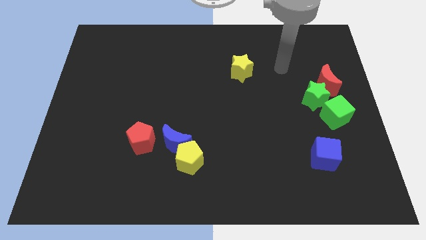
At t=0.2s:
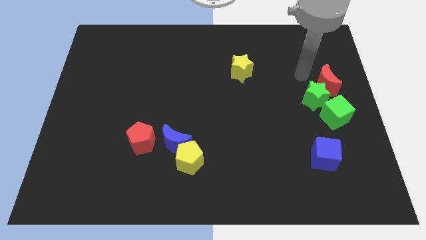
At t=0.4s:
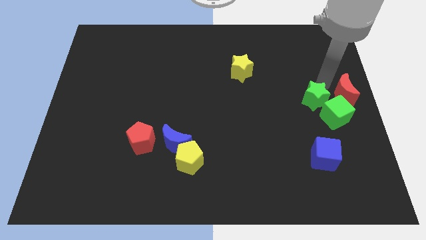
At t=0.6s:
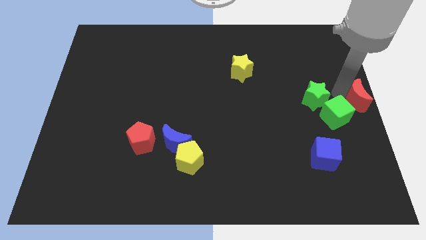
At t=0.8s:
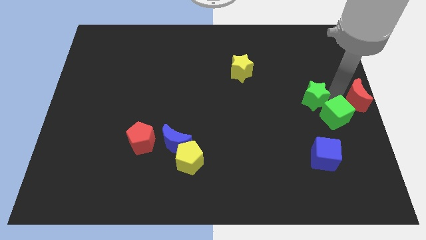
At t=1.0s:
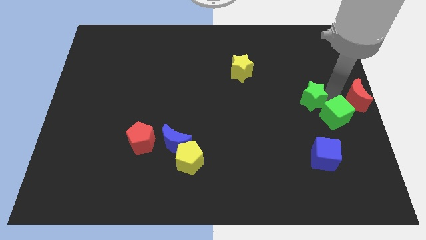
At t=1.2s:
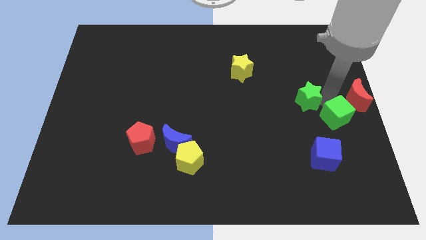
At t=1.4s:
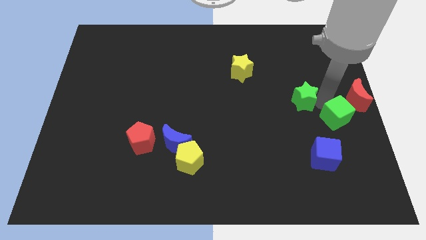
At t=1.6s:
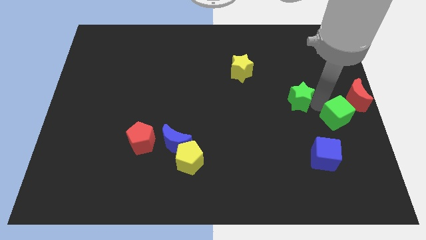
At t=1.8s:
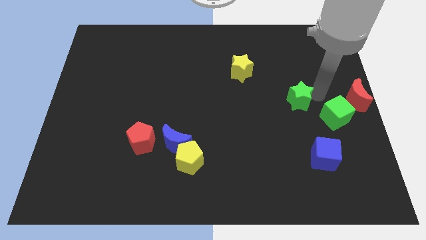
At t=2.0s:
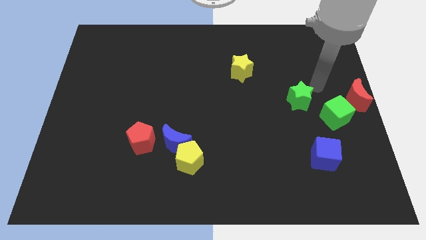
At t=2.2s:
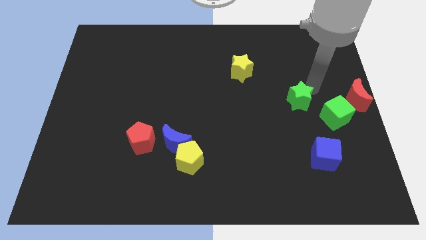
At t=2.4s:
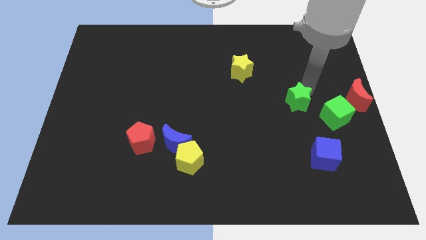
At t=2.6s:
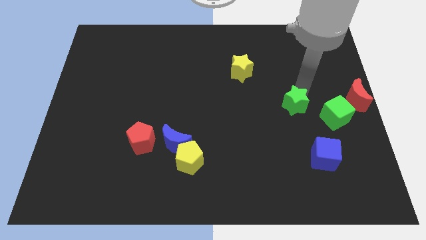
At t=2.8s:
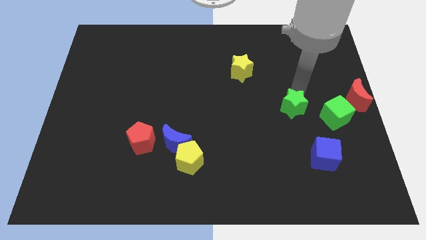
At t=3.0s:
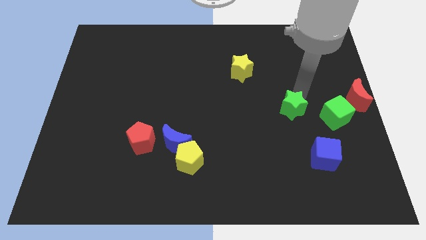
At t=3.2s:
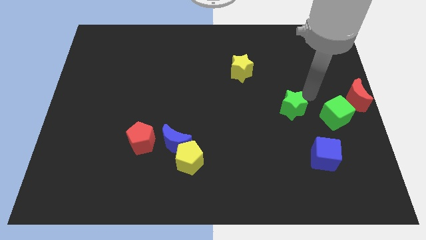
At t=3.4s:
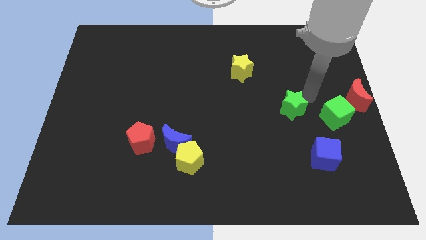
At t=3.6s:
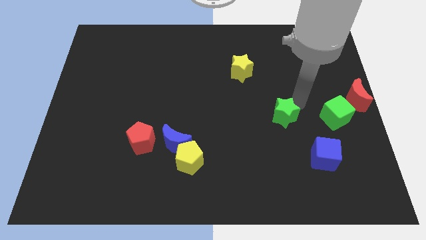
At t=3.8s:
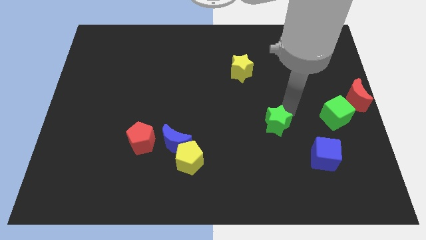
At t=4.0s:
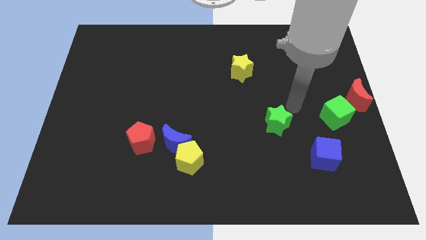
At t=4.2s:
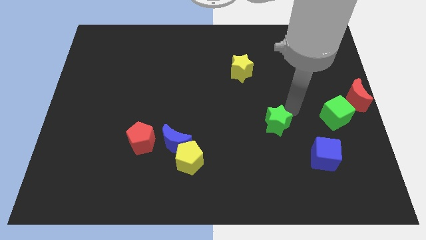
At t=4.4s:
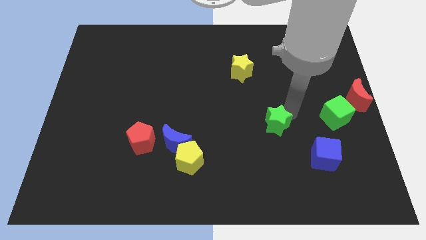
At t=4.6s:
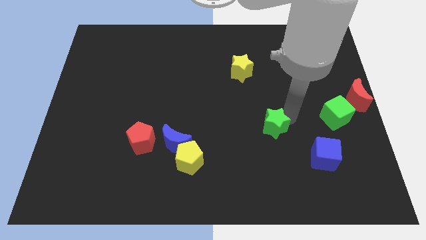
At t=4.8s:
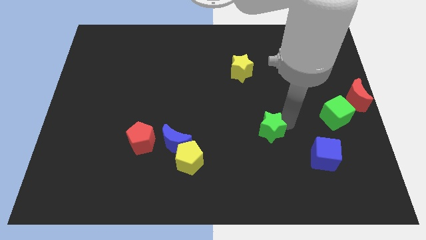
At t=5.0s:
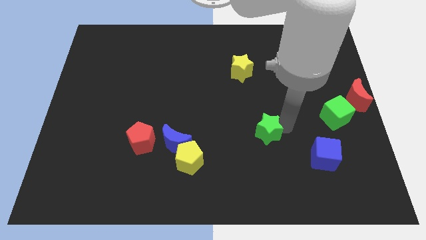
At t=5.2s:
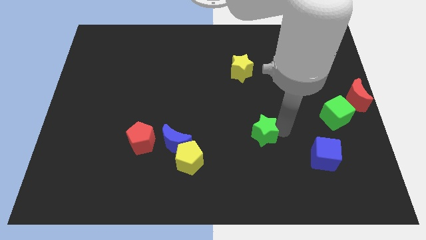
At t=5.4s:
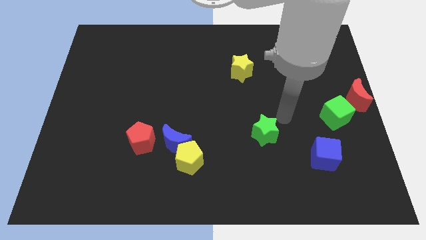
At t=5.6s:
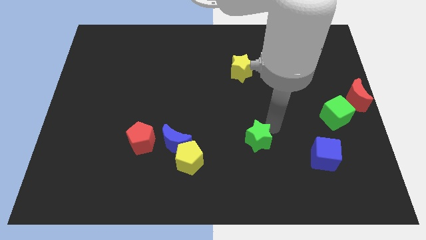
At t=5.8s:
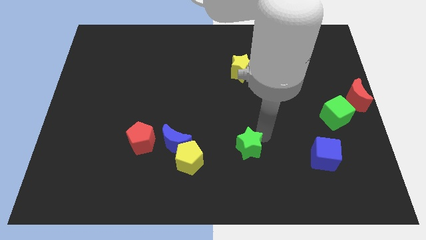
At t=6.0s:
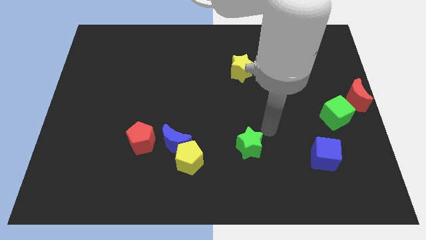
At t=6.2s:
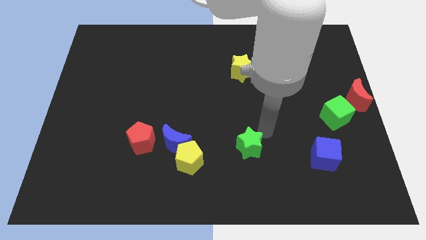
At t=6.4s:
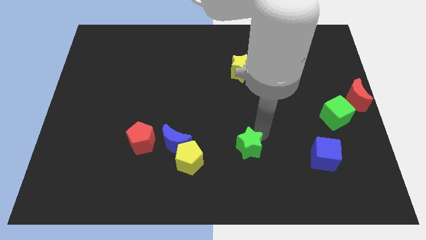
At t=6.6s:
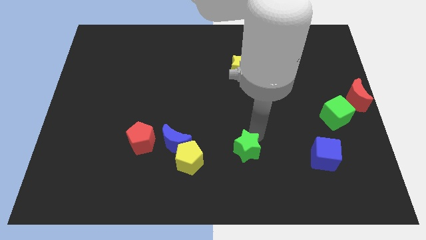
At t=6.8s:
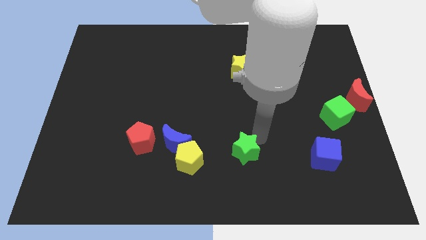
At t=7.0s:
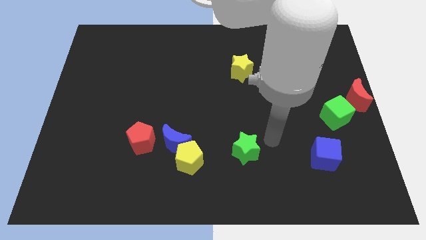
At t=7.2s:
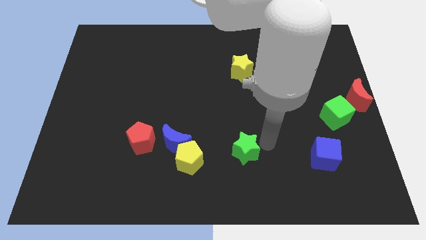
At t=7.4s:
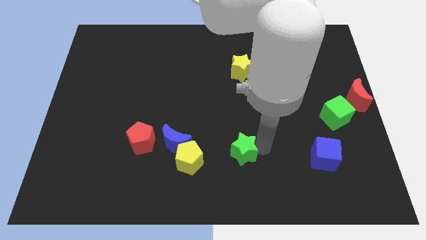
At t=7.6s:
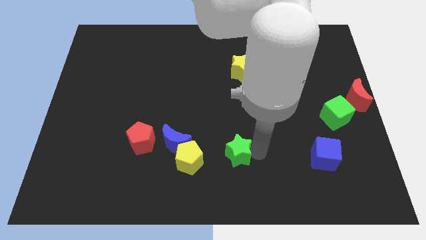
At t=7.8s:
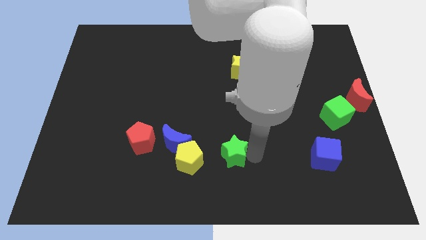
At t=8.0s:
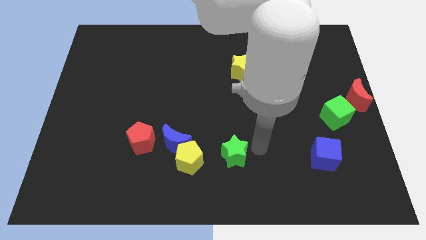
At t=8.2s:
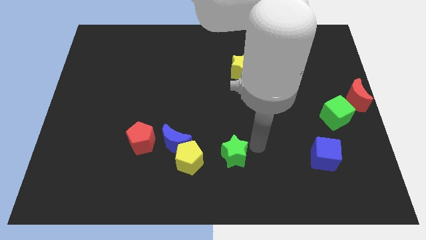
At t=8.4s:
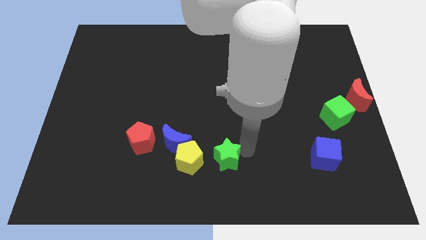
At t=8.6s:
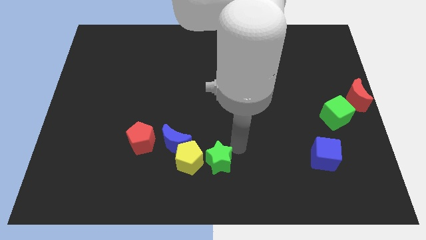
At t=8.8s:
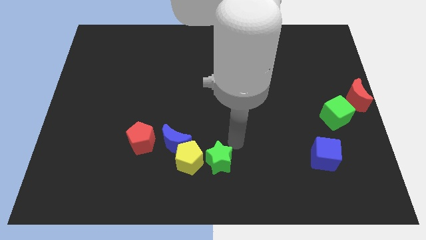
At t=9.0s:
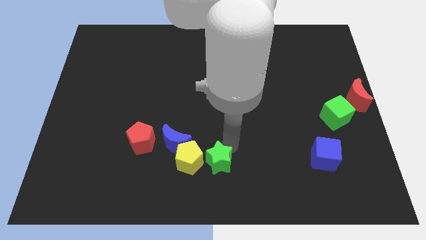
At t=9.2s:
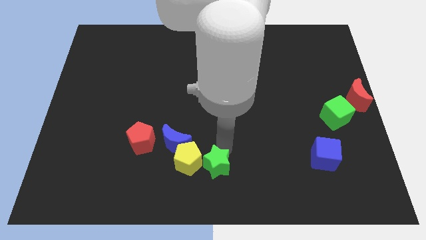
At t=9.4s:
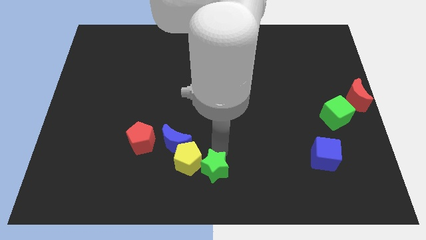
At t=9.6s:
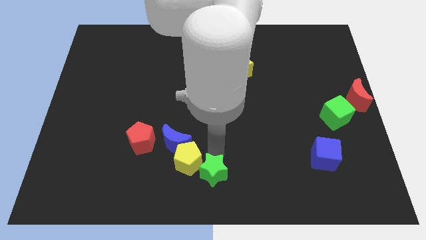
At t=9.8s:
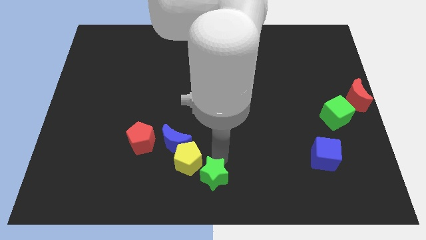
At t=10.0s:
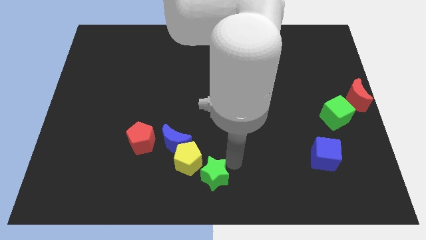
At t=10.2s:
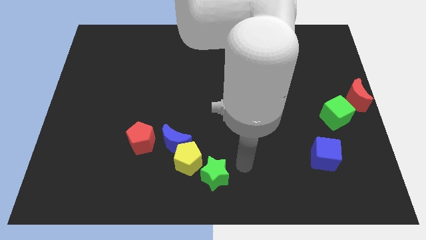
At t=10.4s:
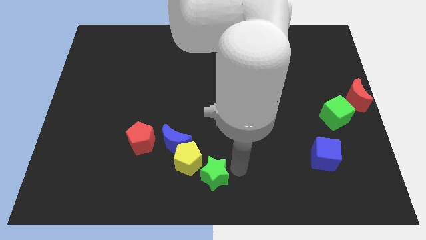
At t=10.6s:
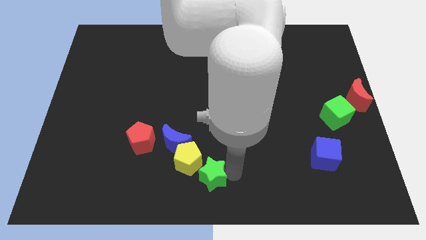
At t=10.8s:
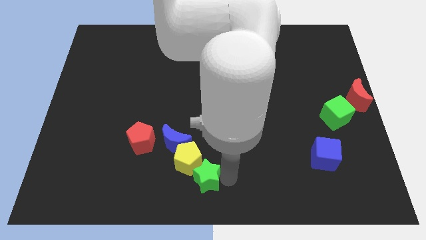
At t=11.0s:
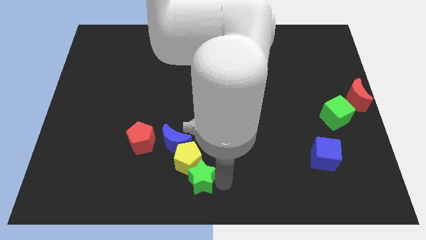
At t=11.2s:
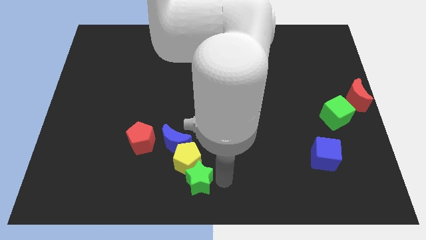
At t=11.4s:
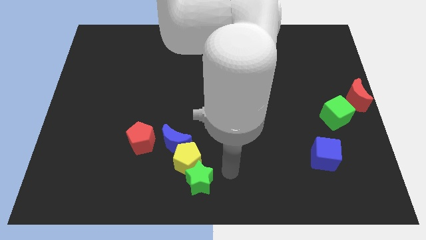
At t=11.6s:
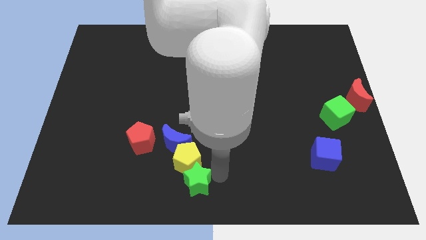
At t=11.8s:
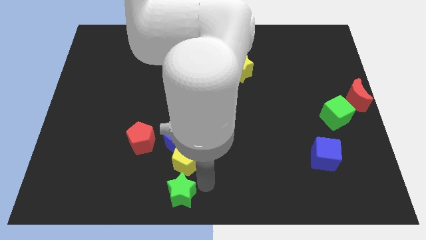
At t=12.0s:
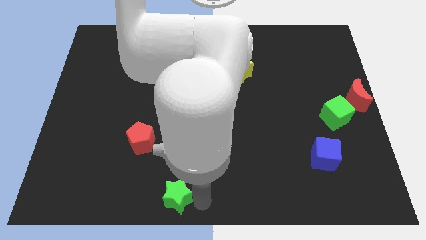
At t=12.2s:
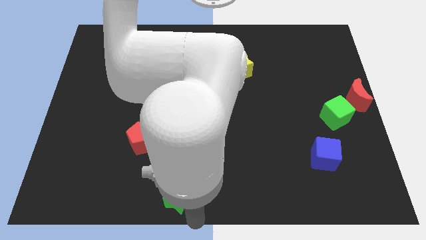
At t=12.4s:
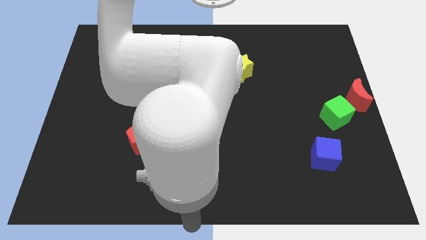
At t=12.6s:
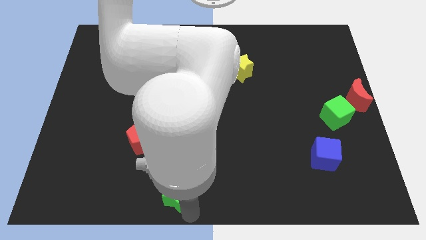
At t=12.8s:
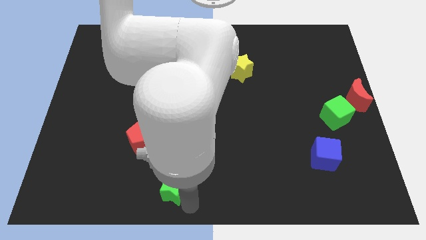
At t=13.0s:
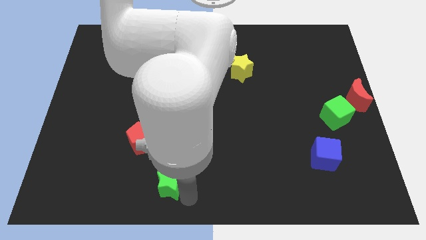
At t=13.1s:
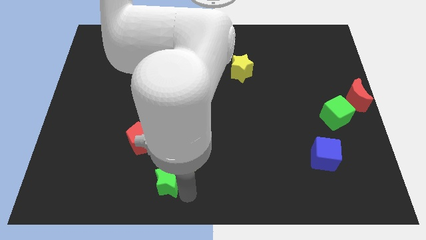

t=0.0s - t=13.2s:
push the green star to the bottom right side of the red pentagon
